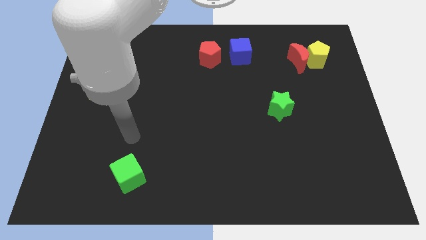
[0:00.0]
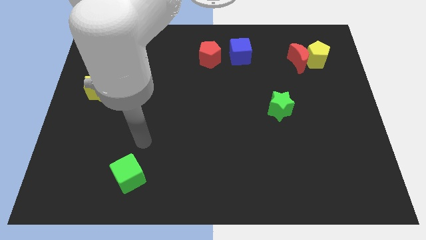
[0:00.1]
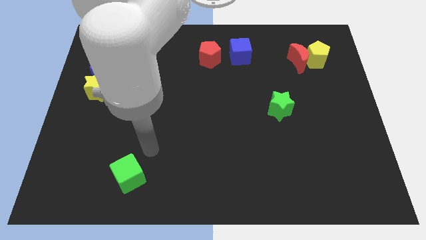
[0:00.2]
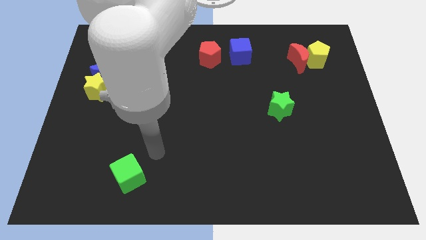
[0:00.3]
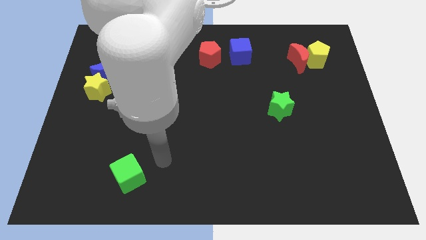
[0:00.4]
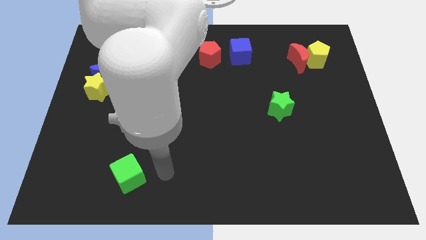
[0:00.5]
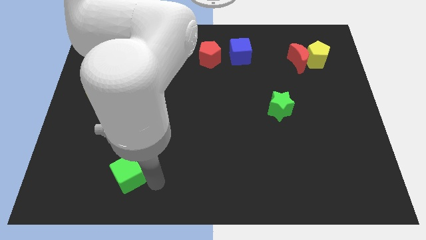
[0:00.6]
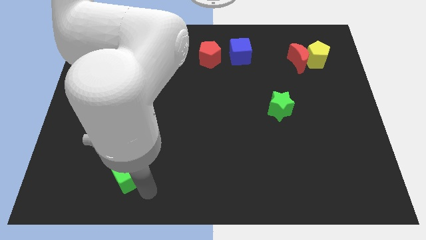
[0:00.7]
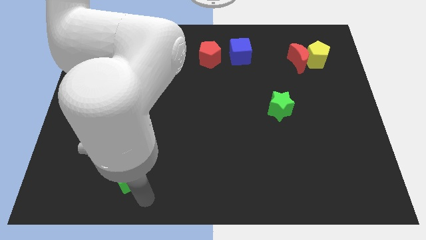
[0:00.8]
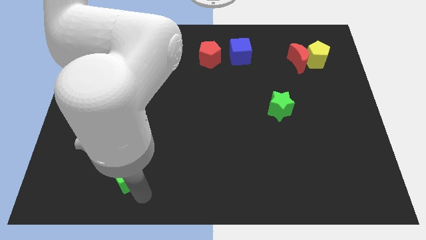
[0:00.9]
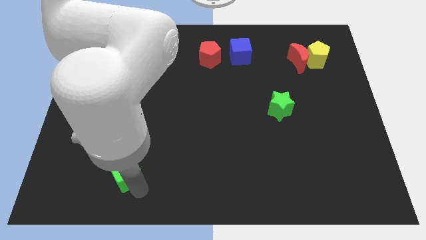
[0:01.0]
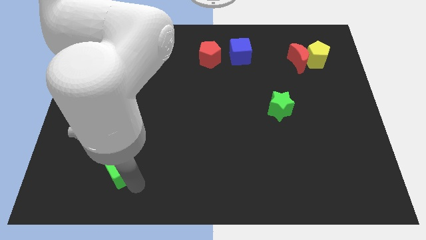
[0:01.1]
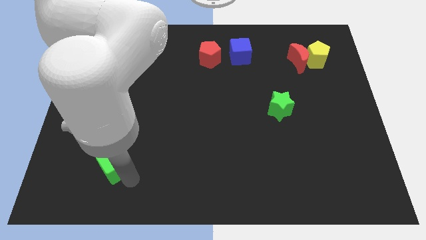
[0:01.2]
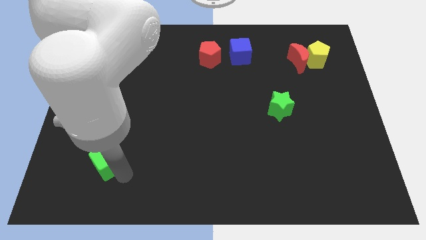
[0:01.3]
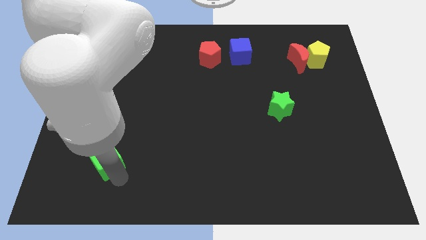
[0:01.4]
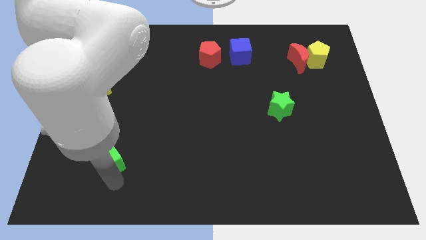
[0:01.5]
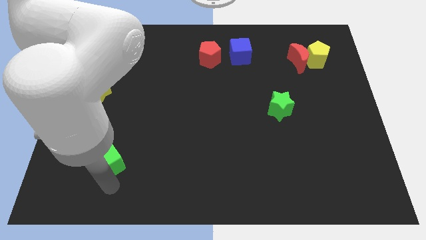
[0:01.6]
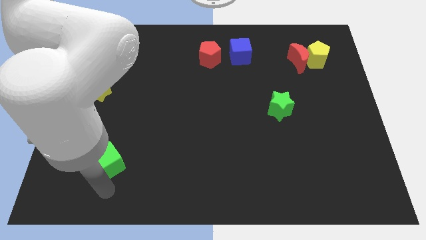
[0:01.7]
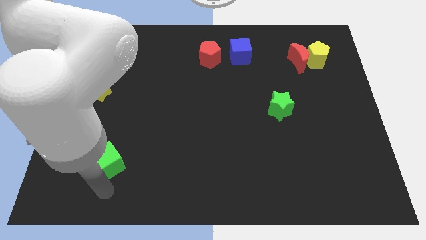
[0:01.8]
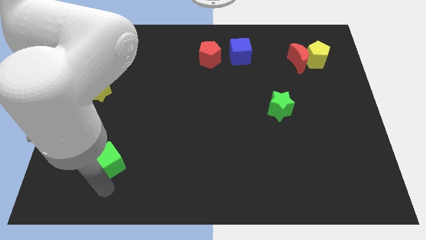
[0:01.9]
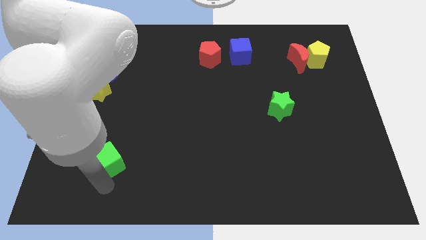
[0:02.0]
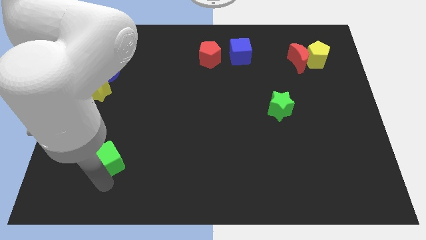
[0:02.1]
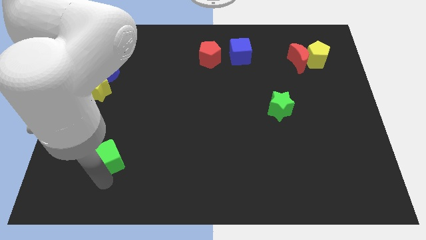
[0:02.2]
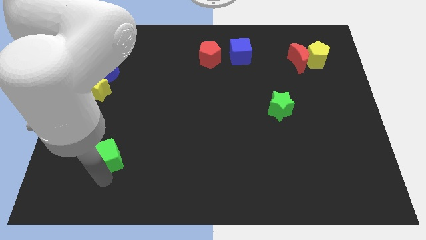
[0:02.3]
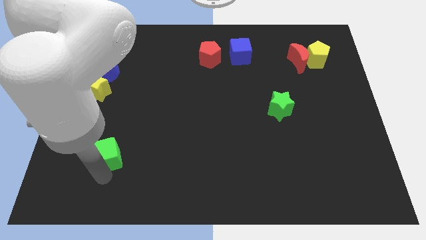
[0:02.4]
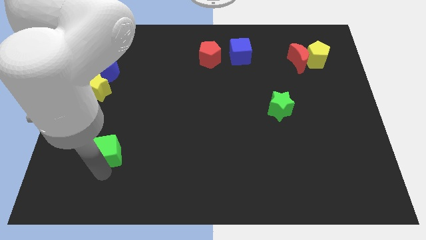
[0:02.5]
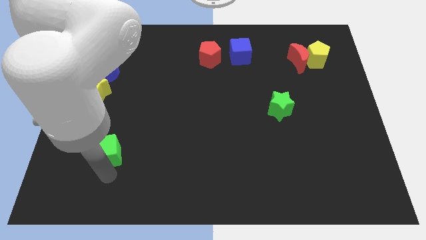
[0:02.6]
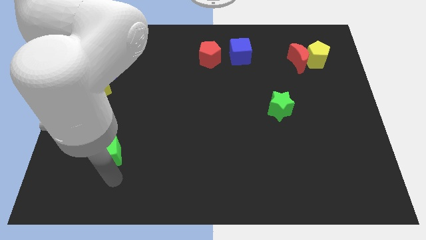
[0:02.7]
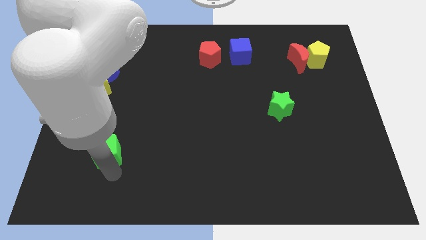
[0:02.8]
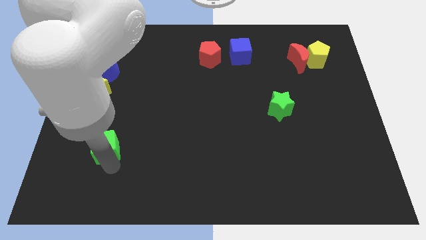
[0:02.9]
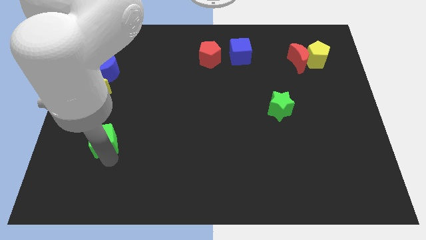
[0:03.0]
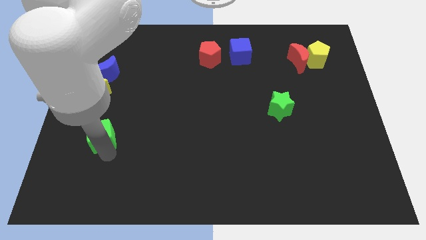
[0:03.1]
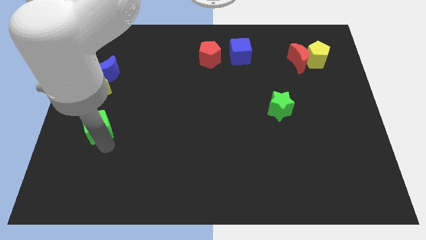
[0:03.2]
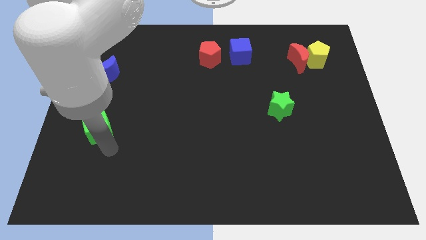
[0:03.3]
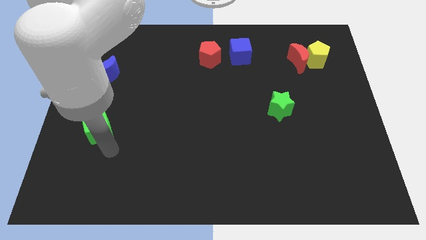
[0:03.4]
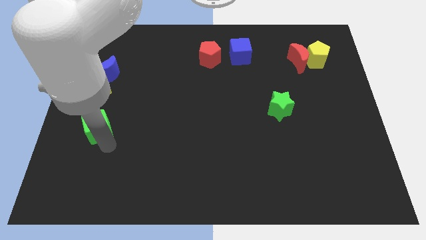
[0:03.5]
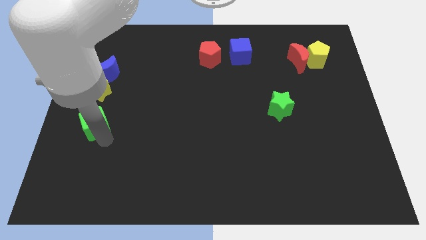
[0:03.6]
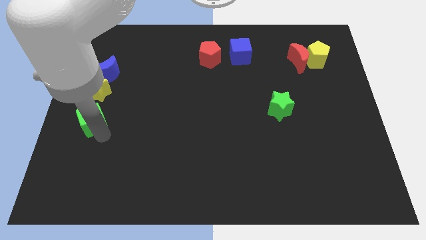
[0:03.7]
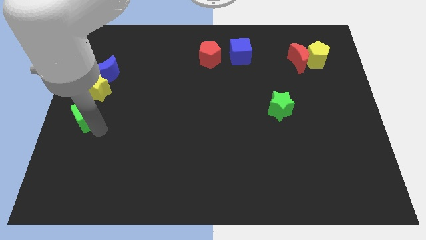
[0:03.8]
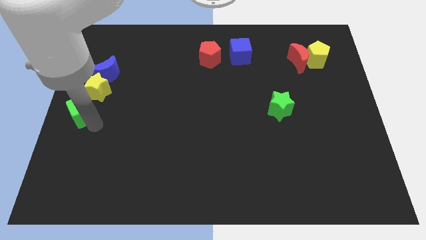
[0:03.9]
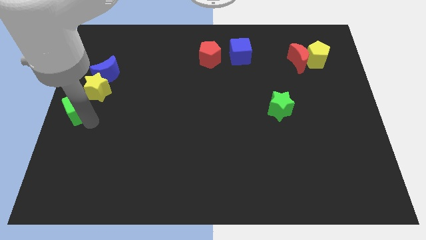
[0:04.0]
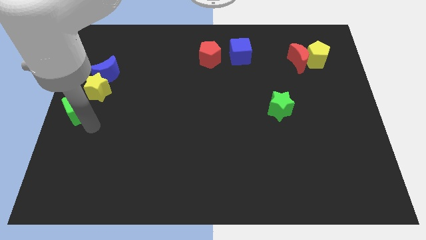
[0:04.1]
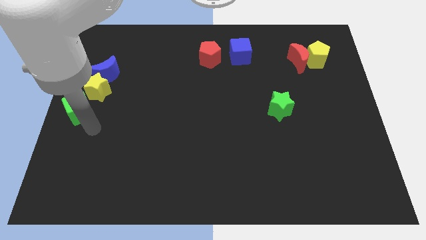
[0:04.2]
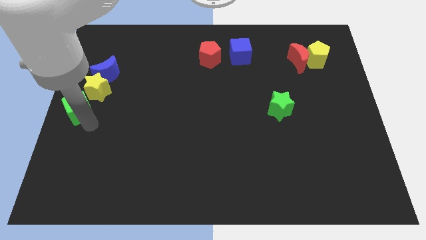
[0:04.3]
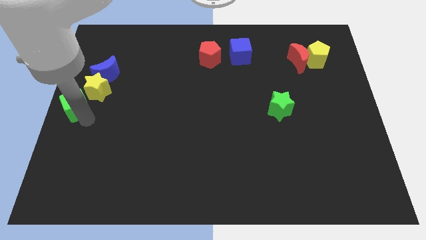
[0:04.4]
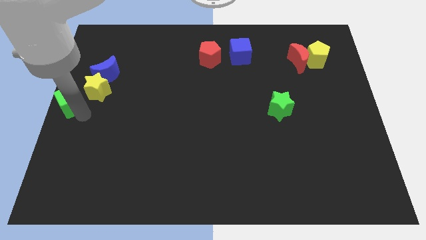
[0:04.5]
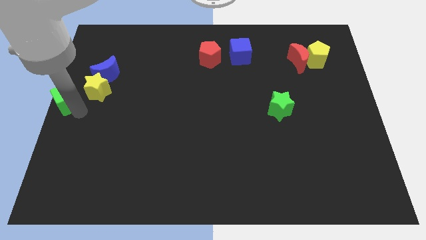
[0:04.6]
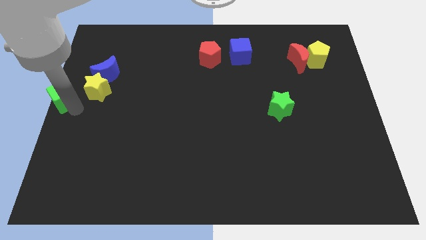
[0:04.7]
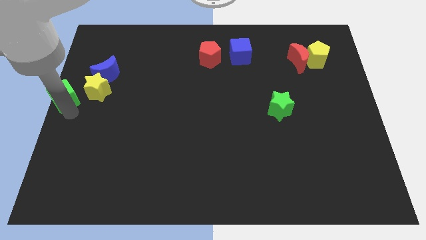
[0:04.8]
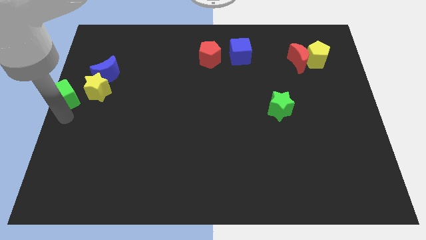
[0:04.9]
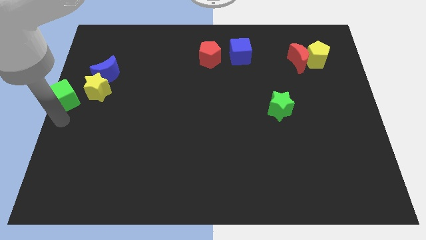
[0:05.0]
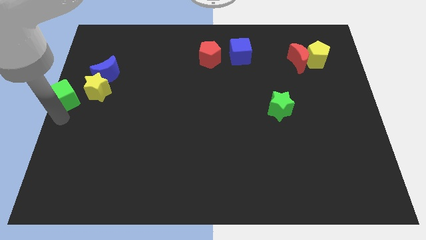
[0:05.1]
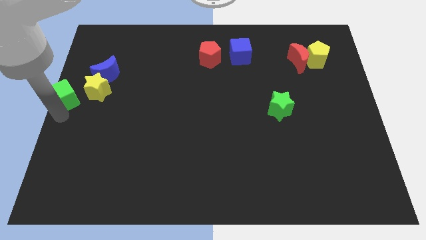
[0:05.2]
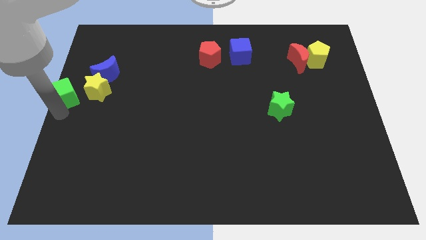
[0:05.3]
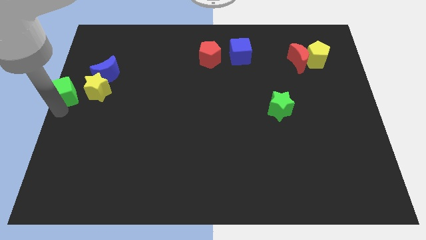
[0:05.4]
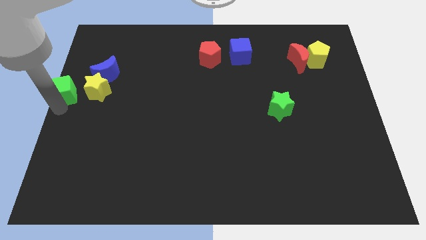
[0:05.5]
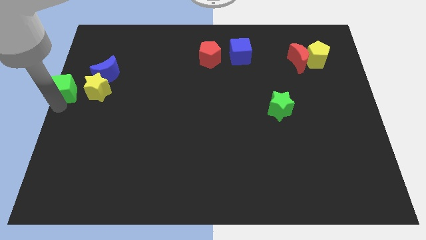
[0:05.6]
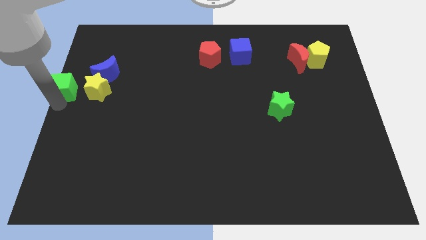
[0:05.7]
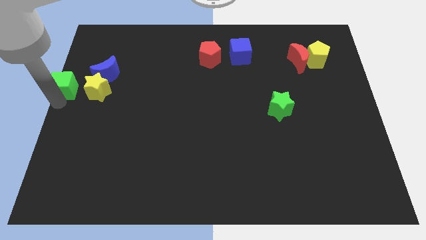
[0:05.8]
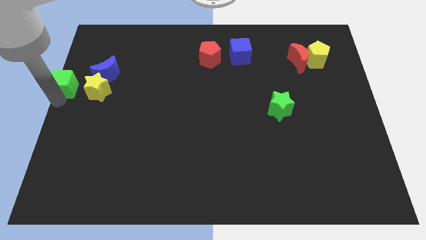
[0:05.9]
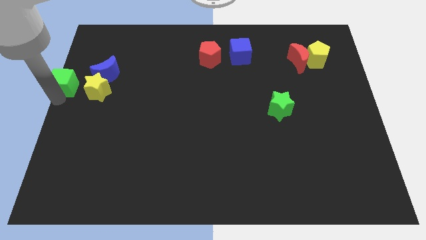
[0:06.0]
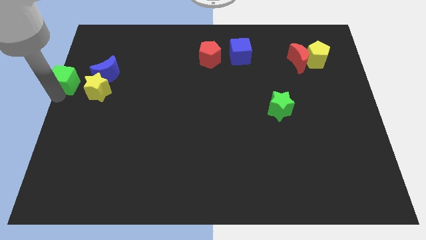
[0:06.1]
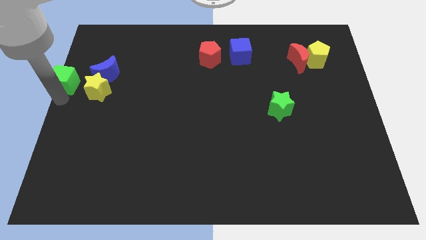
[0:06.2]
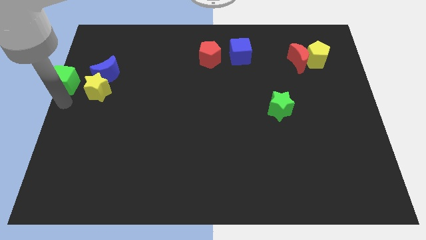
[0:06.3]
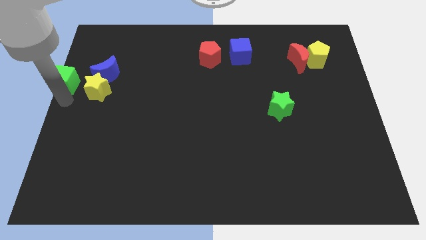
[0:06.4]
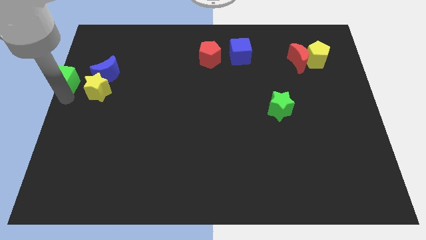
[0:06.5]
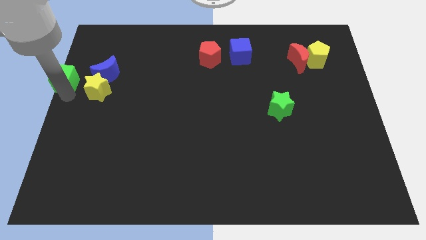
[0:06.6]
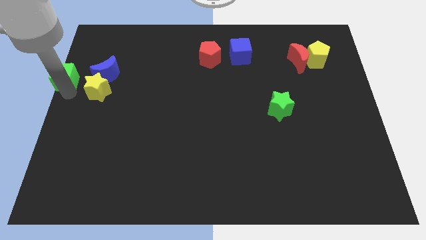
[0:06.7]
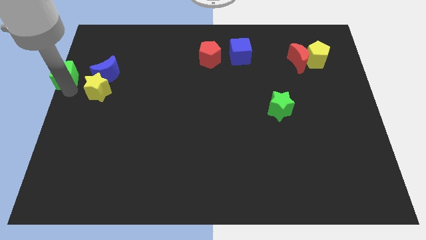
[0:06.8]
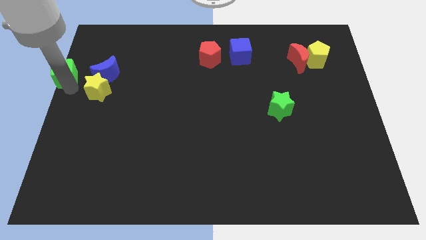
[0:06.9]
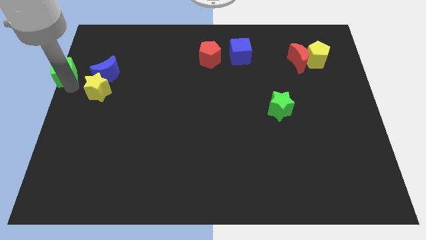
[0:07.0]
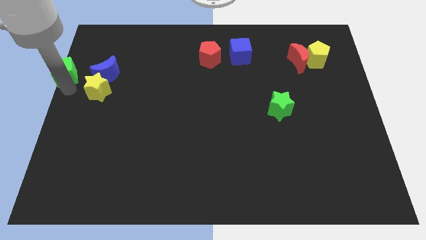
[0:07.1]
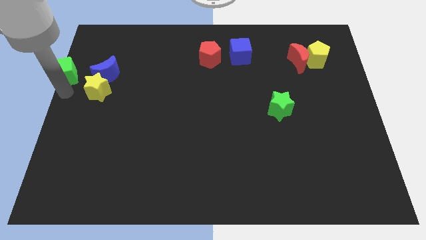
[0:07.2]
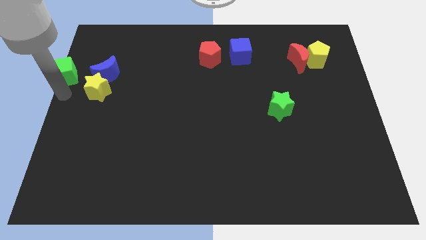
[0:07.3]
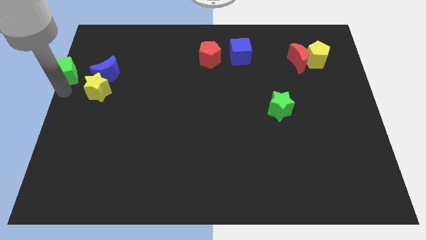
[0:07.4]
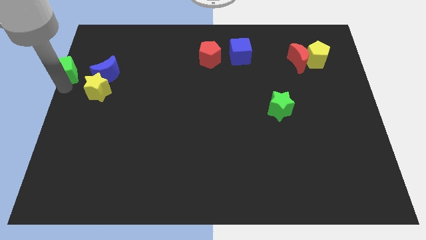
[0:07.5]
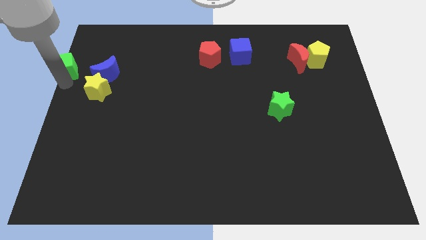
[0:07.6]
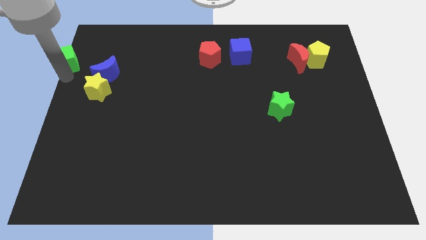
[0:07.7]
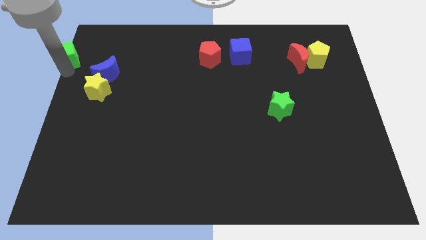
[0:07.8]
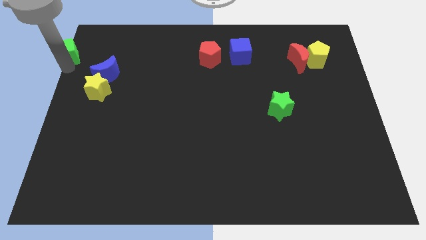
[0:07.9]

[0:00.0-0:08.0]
move the green cube to the top left
